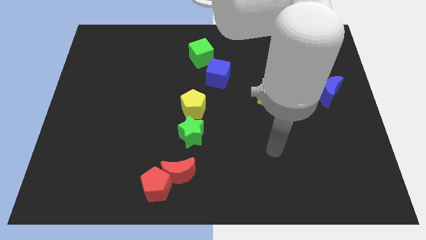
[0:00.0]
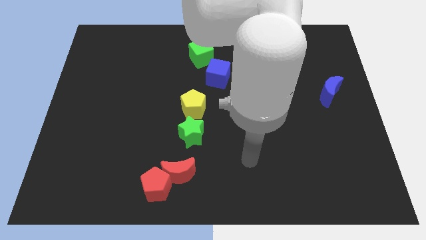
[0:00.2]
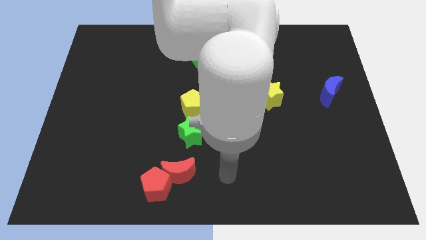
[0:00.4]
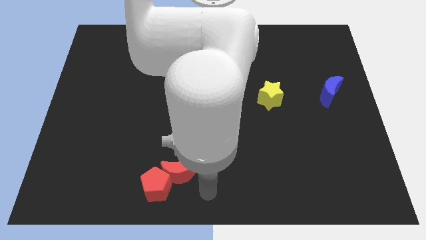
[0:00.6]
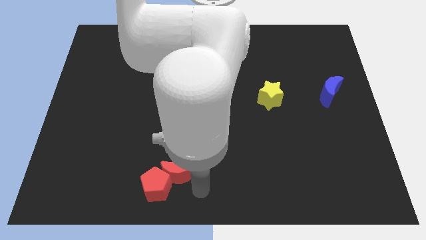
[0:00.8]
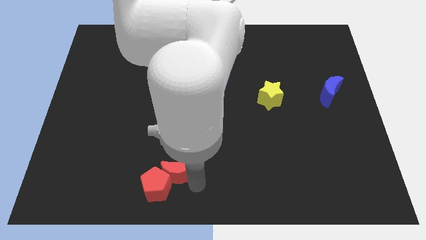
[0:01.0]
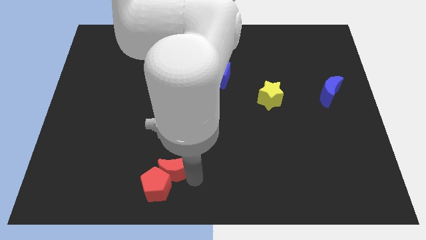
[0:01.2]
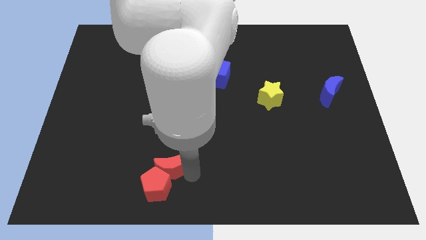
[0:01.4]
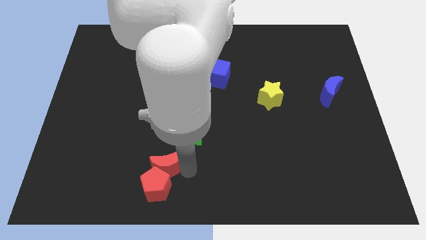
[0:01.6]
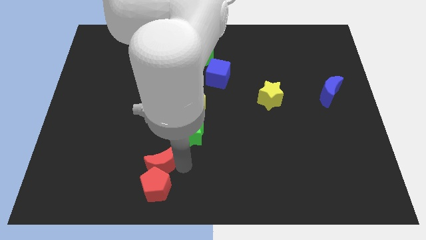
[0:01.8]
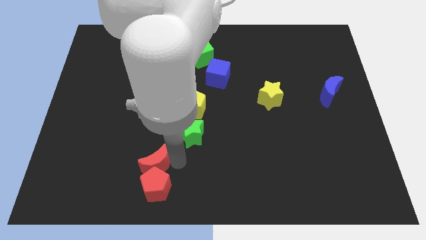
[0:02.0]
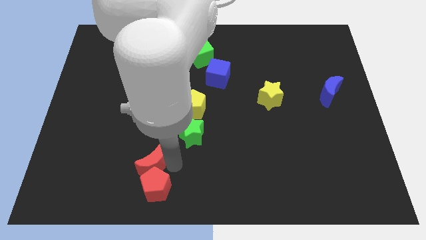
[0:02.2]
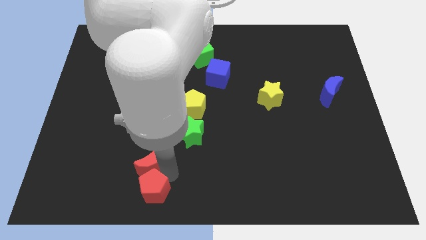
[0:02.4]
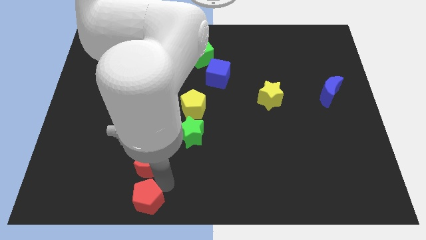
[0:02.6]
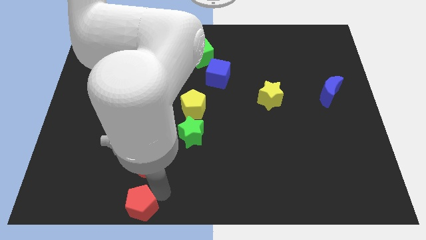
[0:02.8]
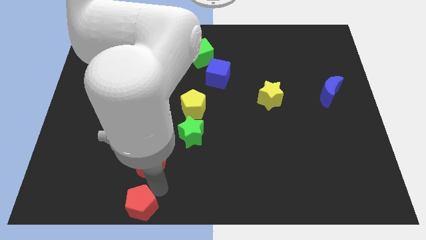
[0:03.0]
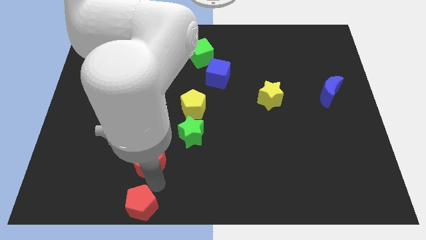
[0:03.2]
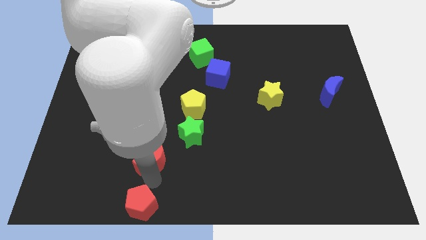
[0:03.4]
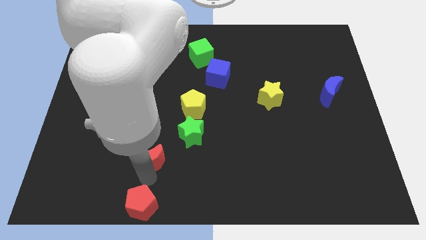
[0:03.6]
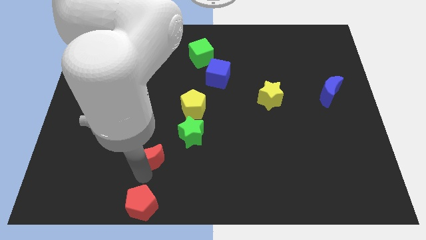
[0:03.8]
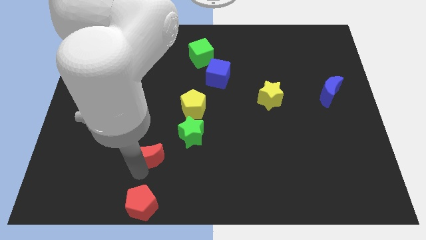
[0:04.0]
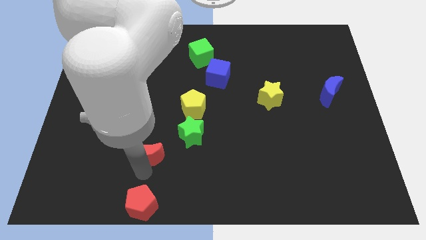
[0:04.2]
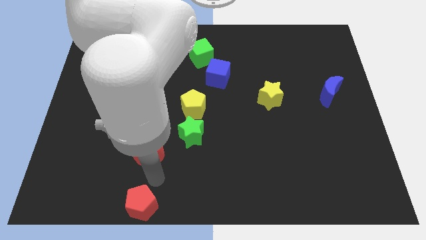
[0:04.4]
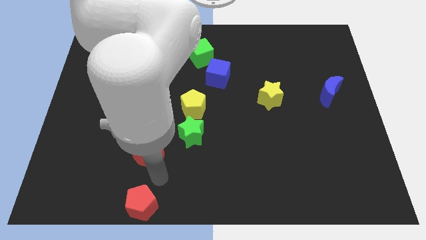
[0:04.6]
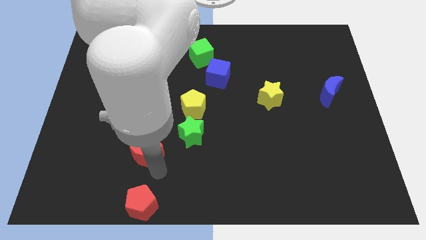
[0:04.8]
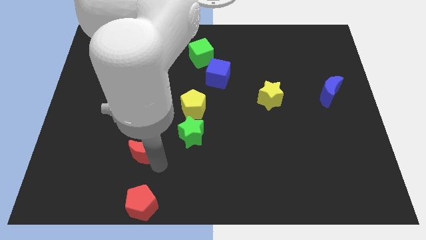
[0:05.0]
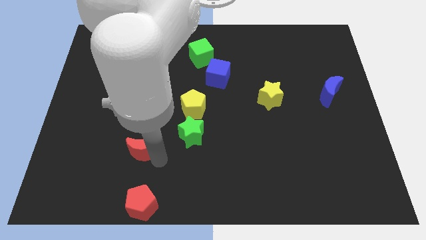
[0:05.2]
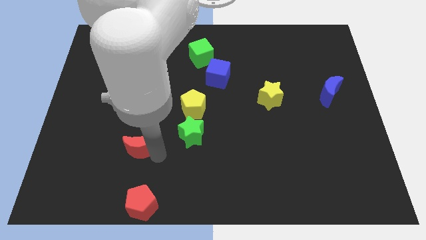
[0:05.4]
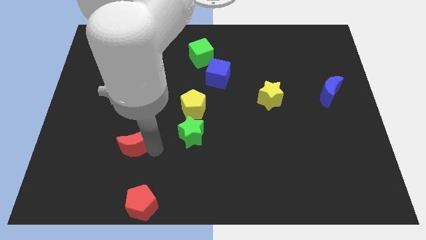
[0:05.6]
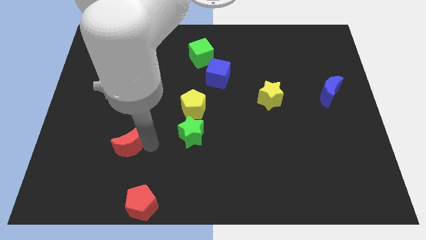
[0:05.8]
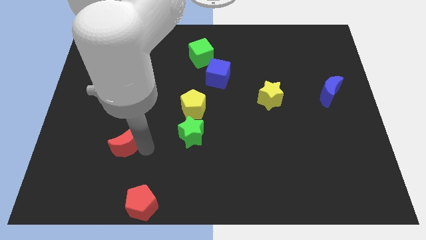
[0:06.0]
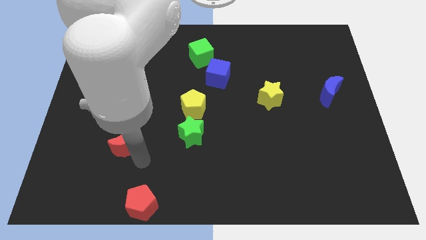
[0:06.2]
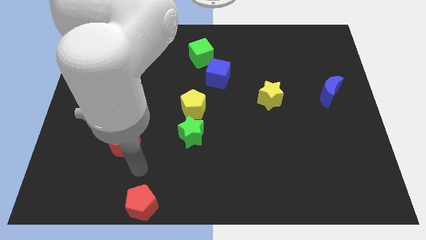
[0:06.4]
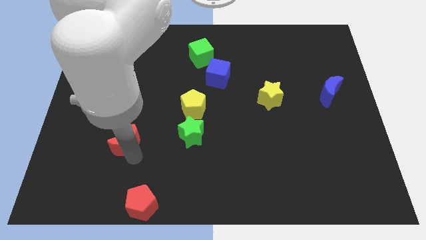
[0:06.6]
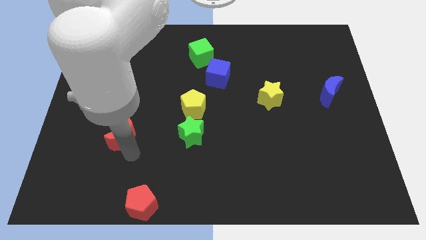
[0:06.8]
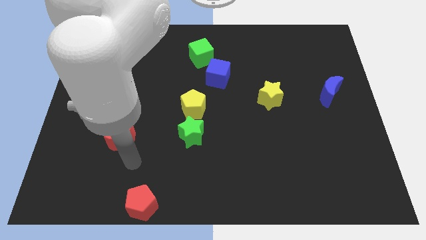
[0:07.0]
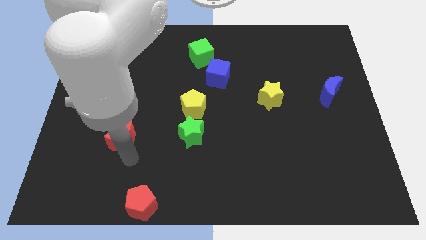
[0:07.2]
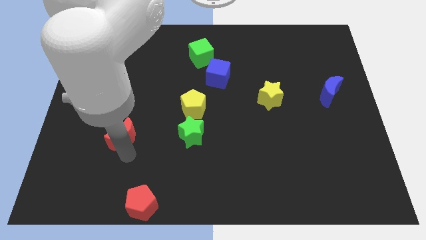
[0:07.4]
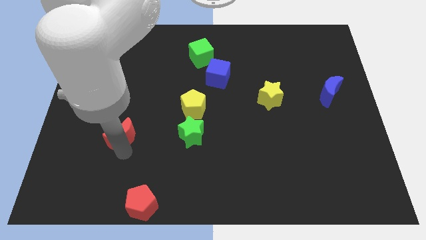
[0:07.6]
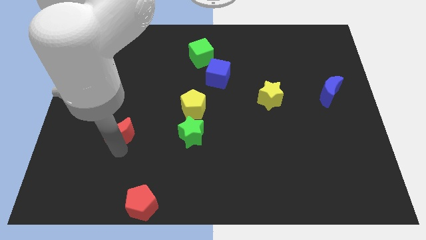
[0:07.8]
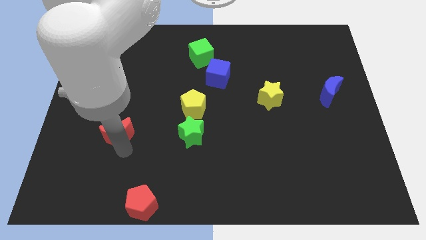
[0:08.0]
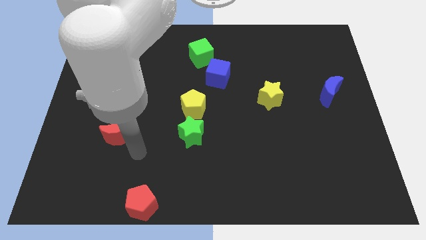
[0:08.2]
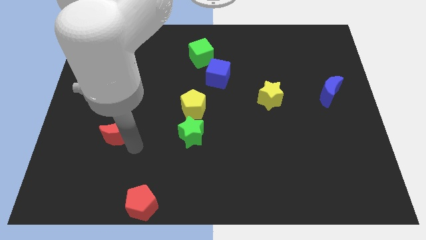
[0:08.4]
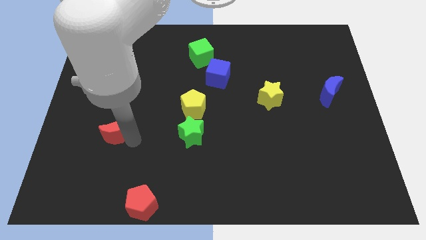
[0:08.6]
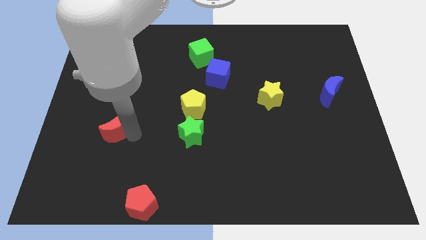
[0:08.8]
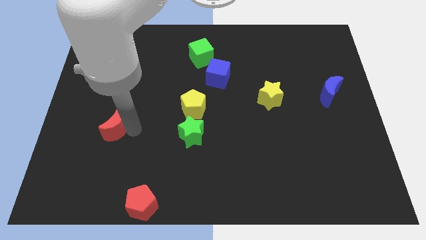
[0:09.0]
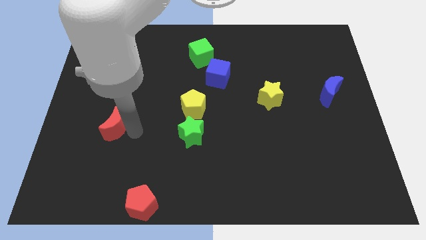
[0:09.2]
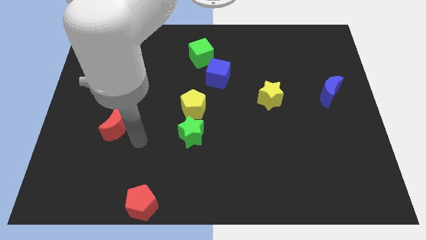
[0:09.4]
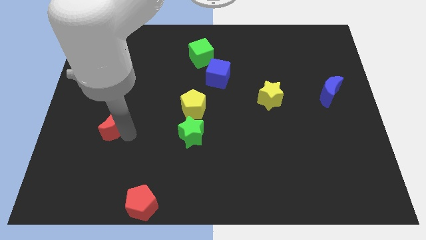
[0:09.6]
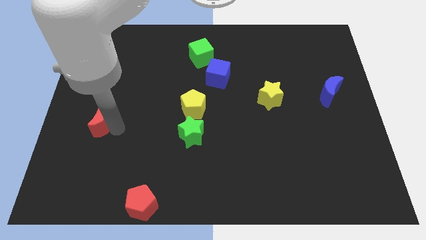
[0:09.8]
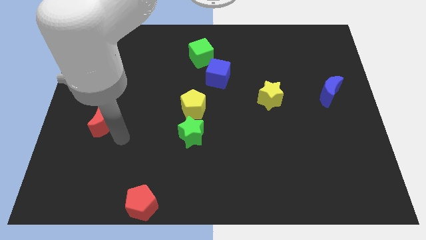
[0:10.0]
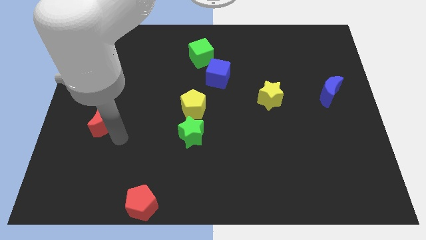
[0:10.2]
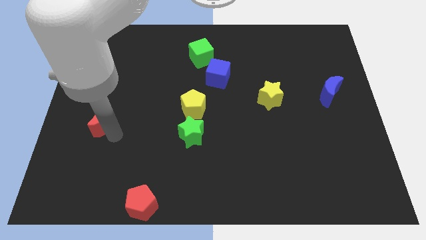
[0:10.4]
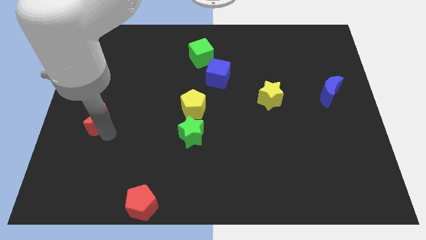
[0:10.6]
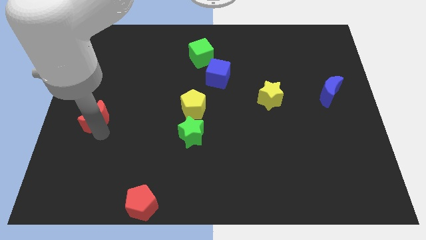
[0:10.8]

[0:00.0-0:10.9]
slide the red moon to the left side of the board
